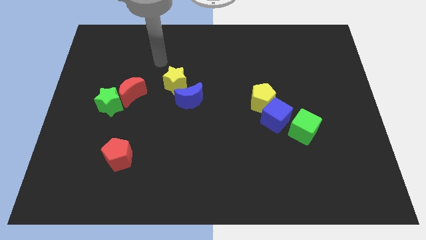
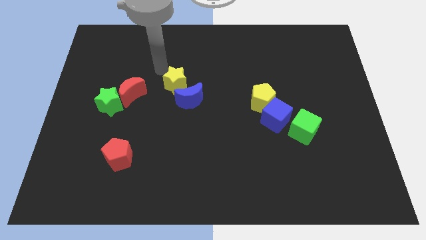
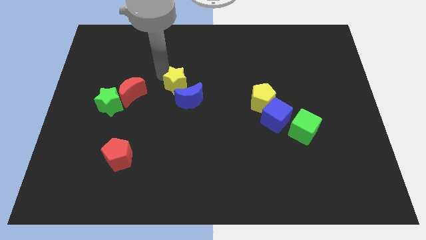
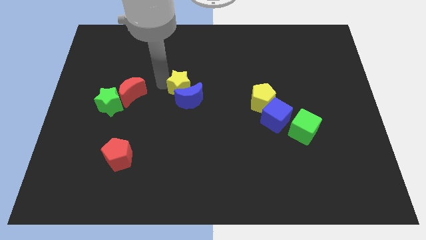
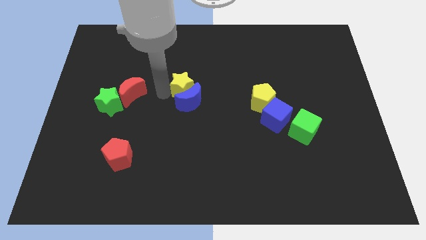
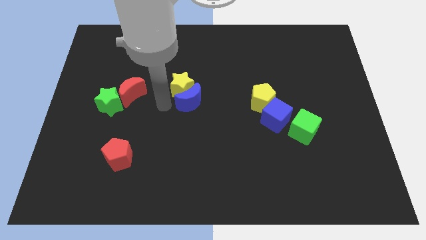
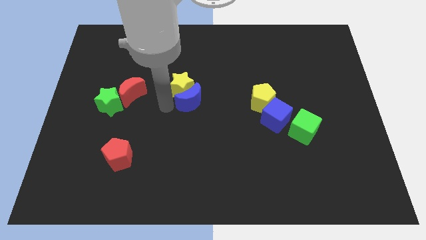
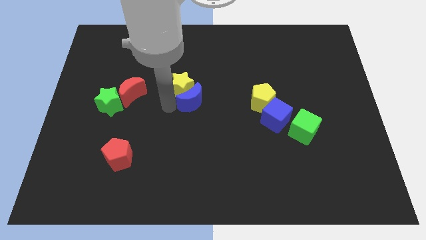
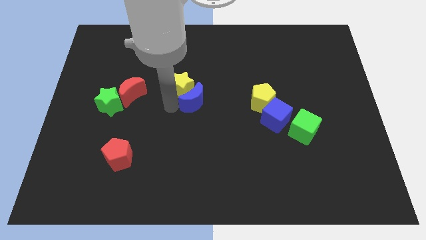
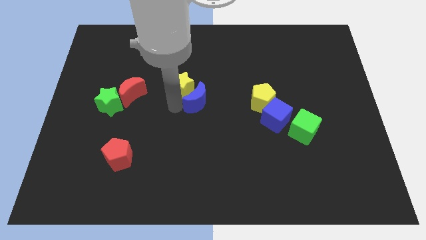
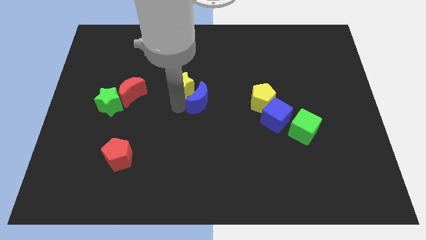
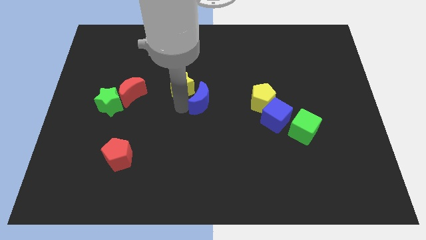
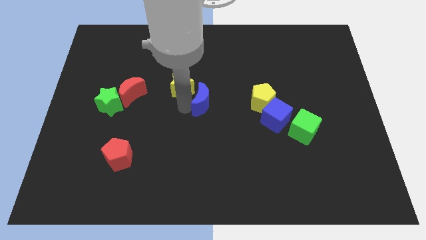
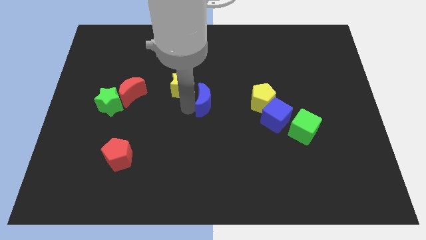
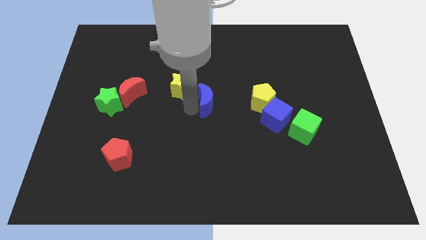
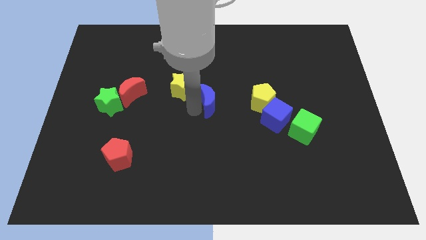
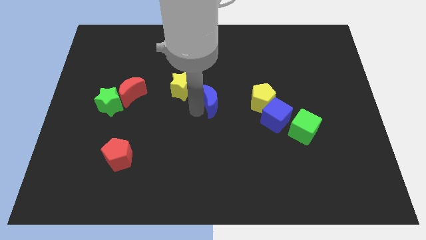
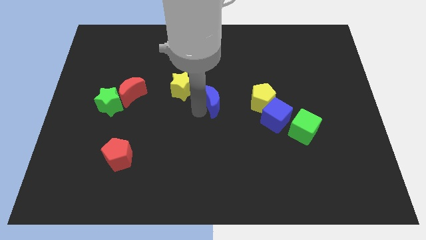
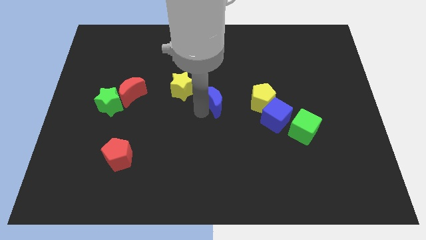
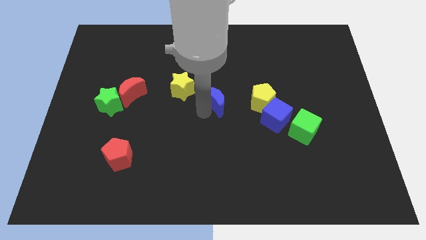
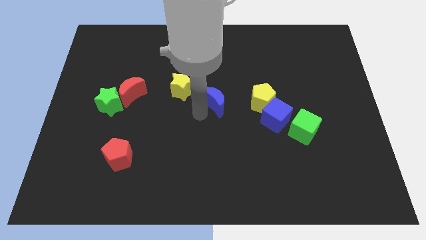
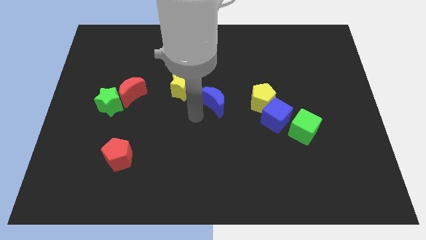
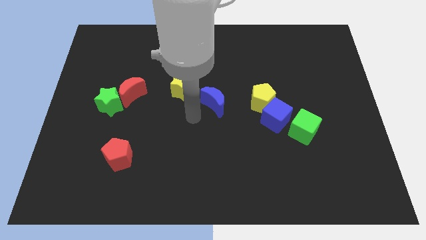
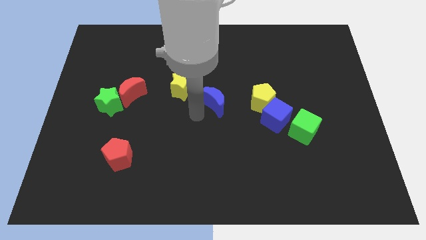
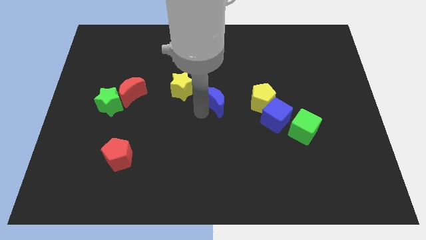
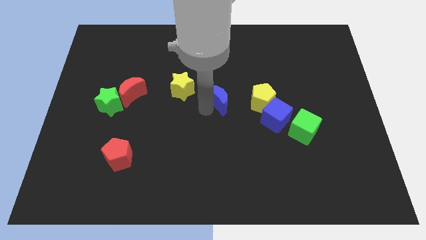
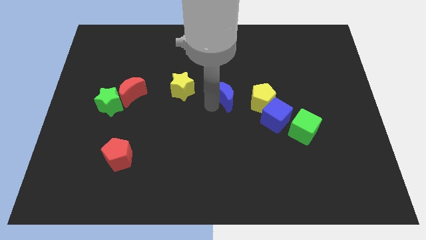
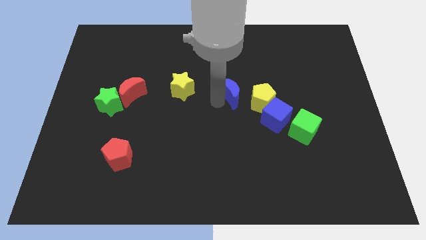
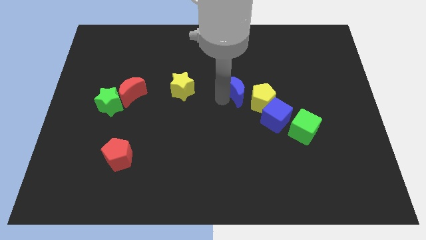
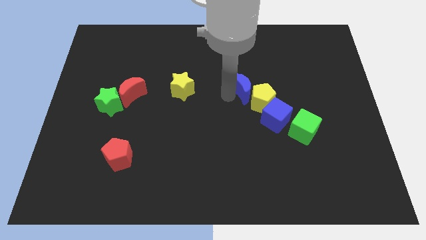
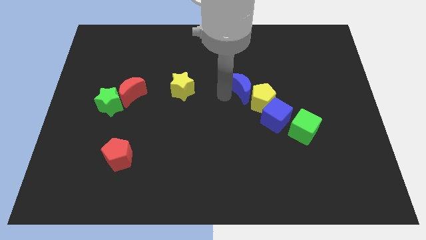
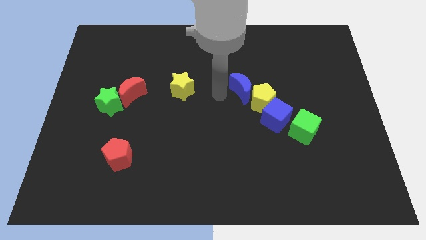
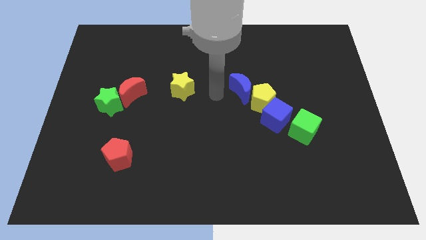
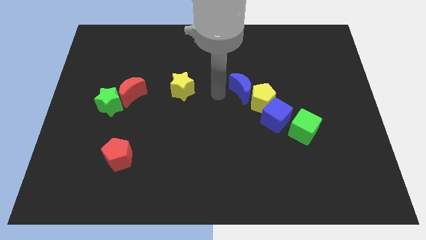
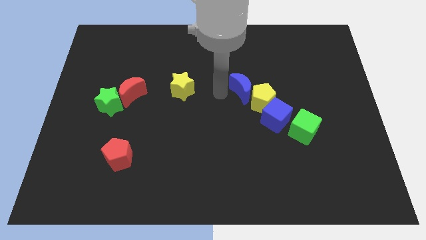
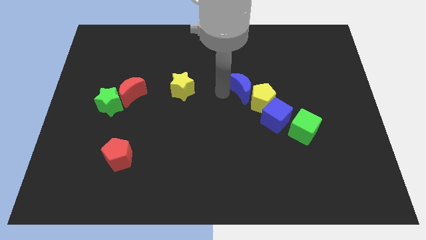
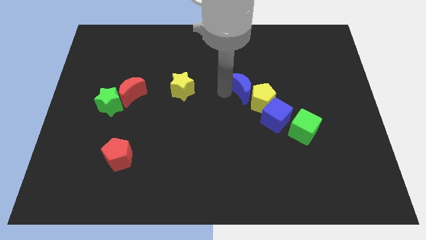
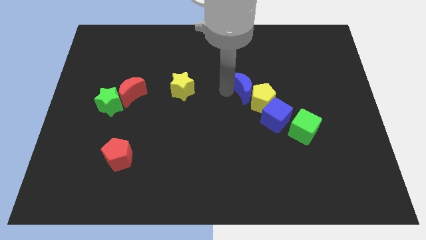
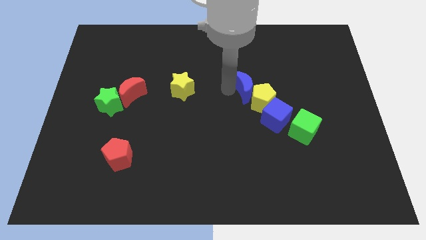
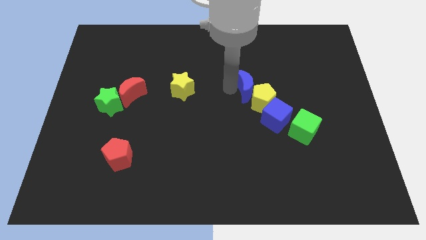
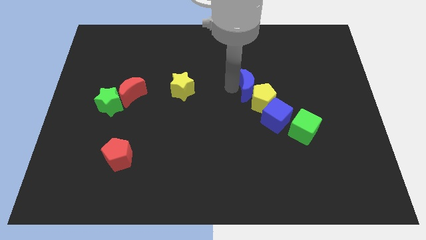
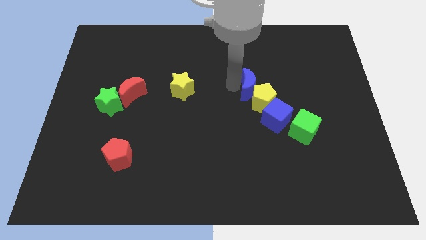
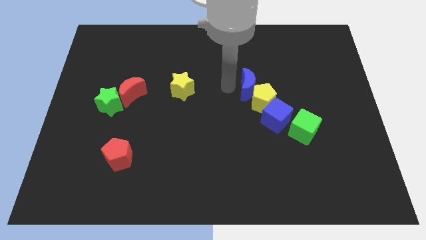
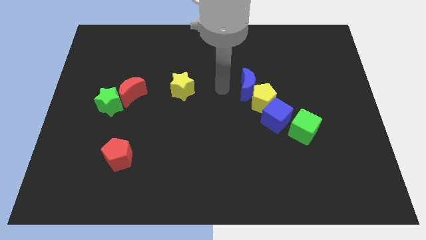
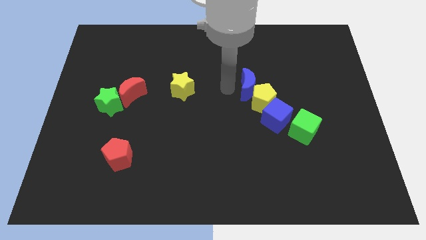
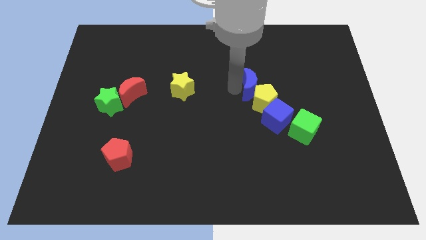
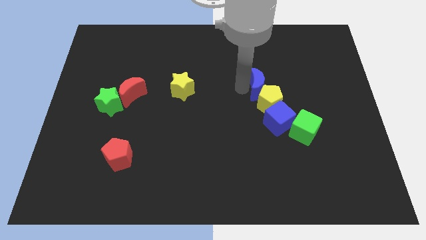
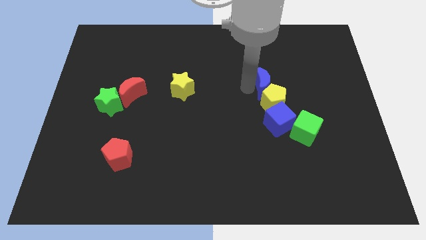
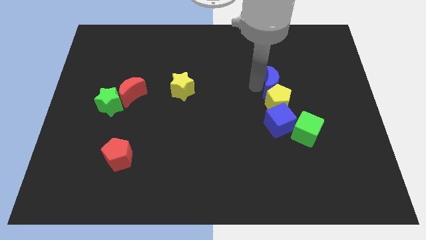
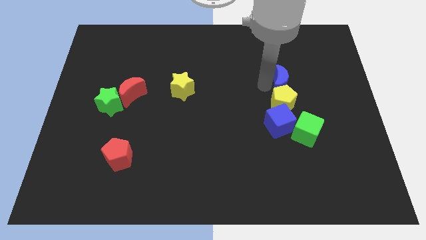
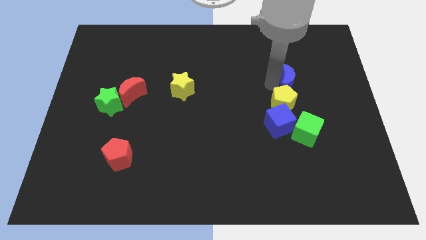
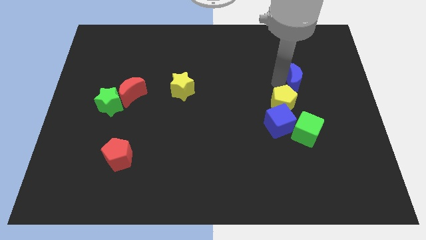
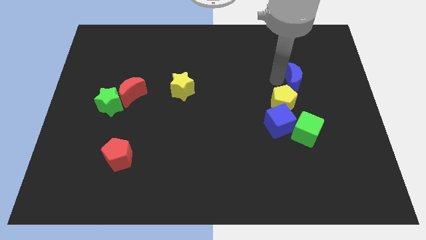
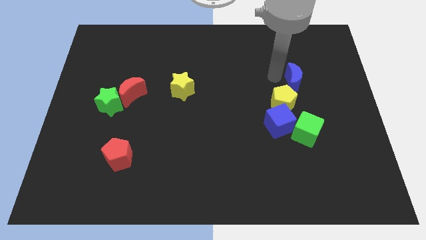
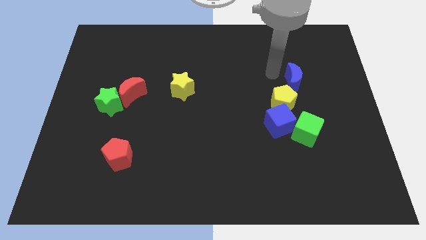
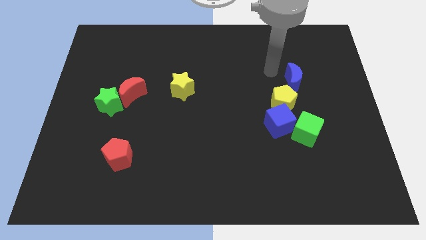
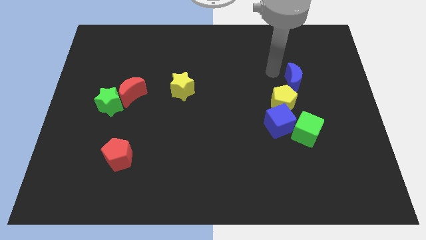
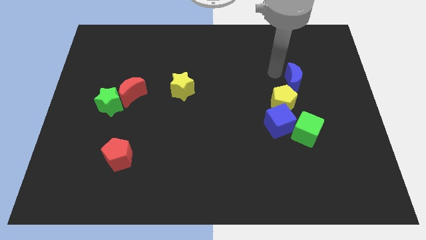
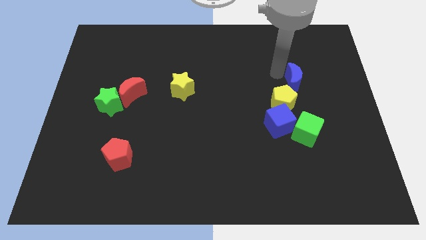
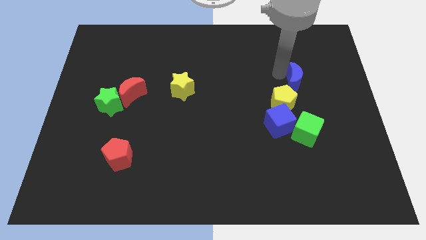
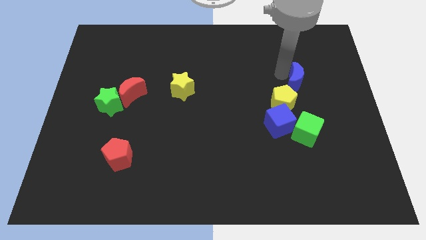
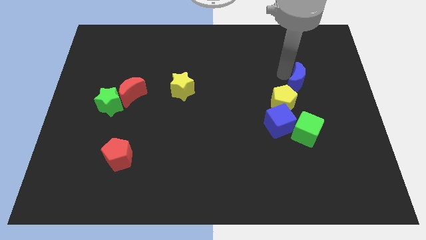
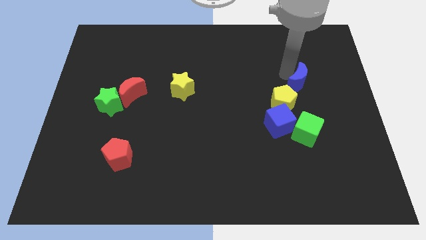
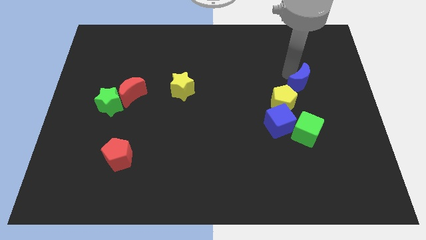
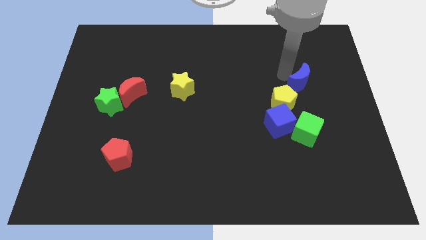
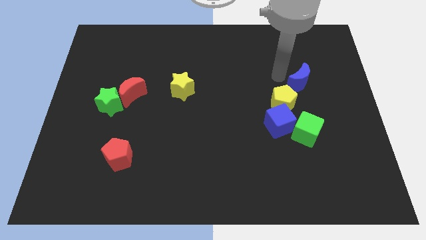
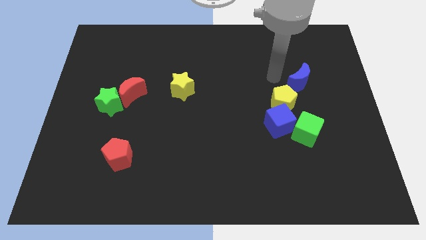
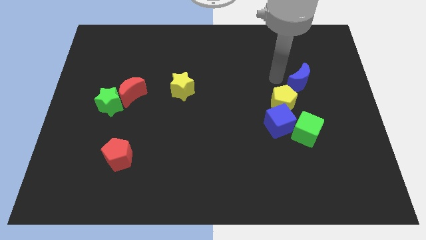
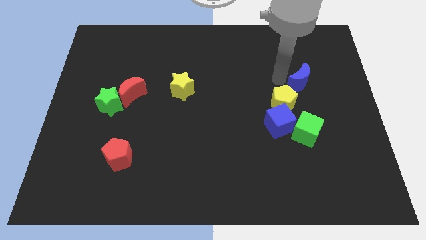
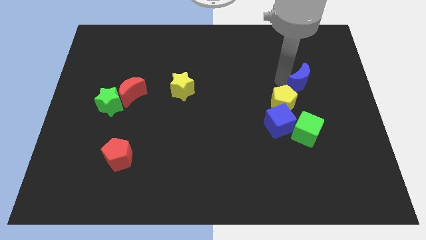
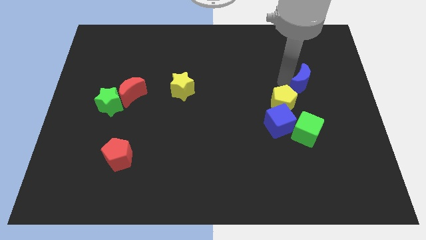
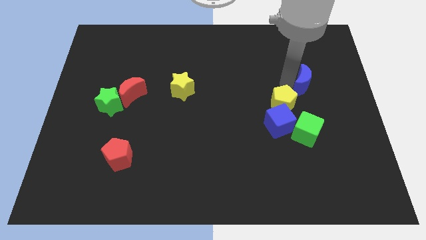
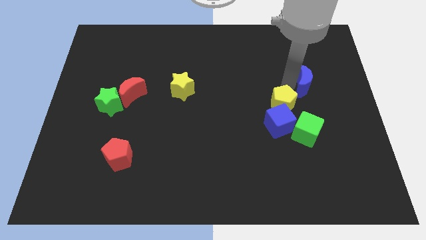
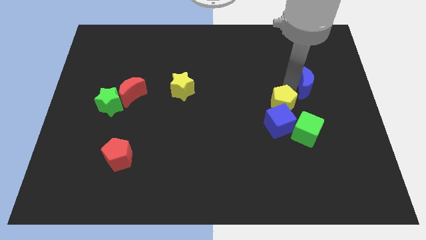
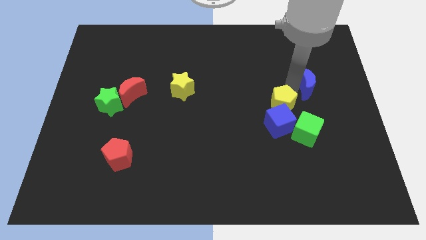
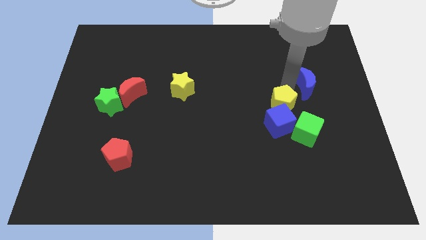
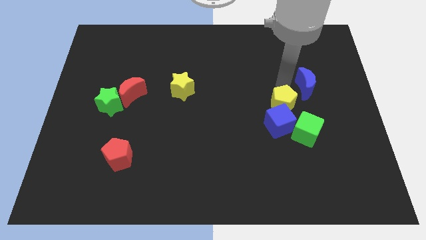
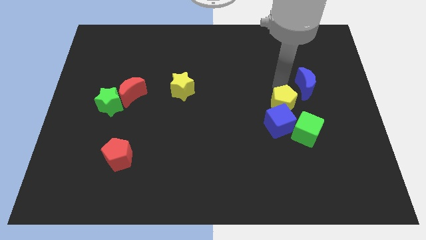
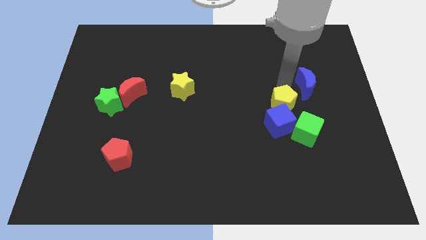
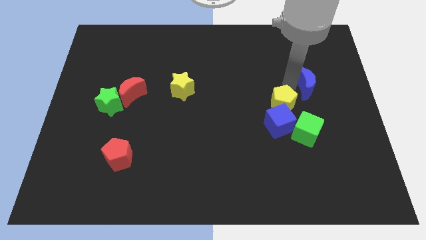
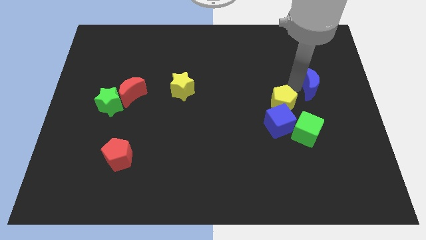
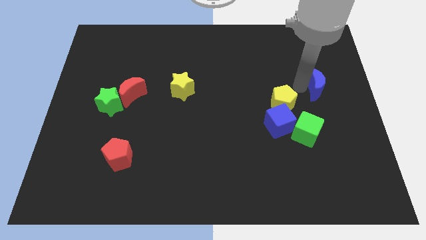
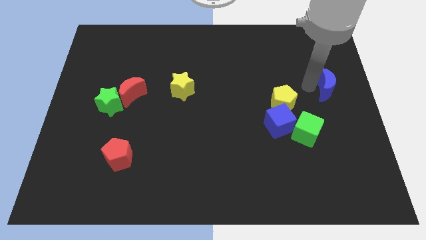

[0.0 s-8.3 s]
move the blue moon to the center right
